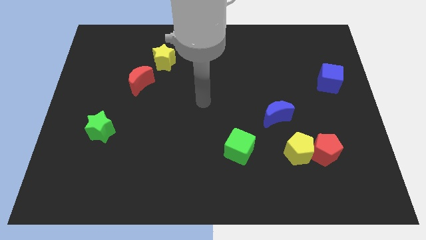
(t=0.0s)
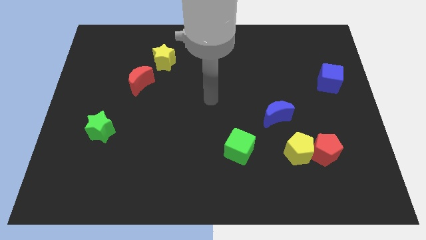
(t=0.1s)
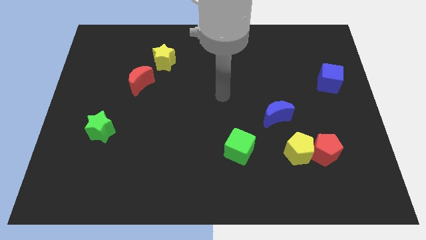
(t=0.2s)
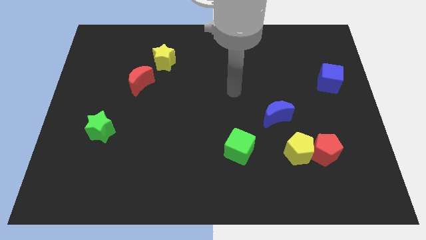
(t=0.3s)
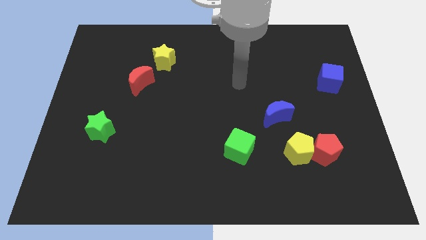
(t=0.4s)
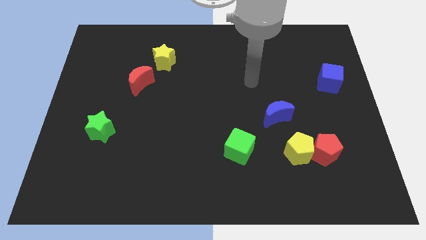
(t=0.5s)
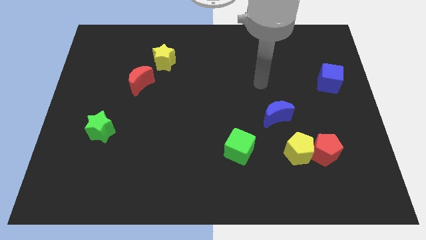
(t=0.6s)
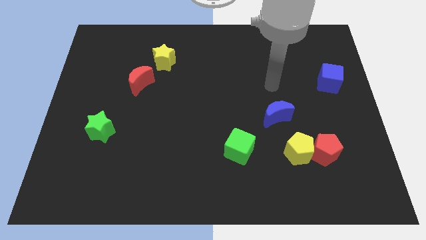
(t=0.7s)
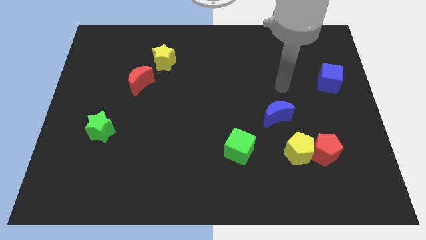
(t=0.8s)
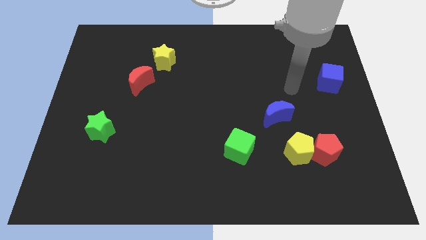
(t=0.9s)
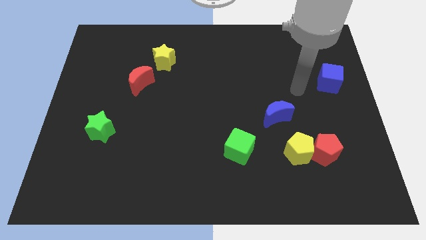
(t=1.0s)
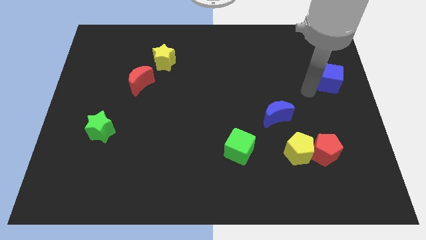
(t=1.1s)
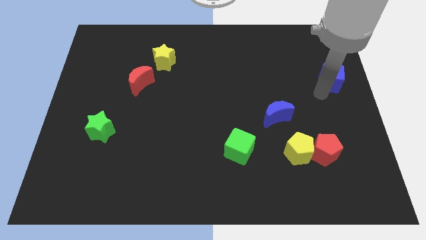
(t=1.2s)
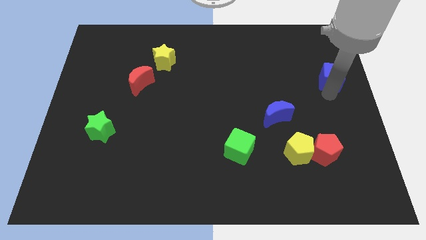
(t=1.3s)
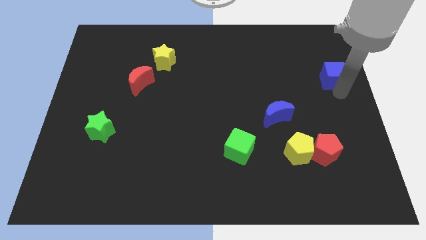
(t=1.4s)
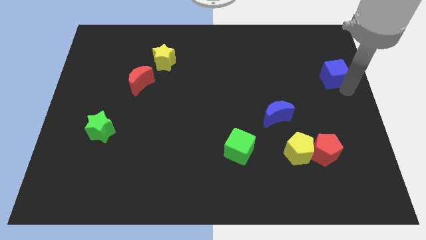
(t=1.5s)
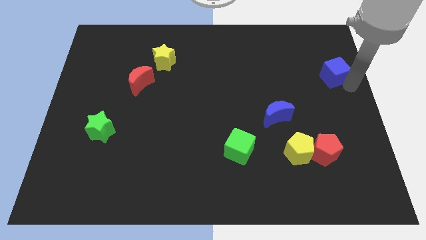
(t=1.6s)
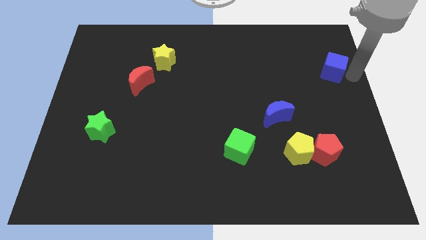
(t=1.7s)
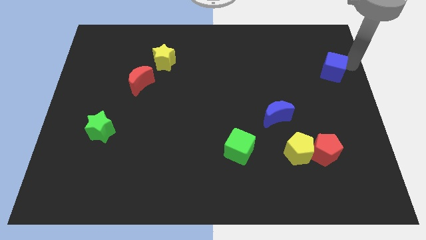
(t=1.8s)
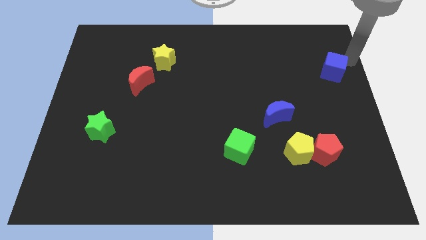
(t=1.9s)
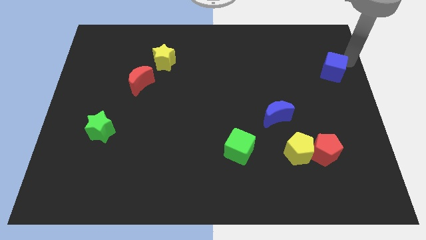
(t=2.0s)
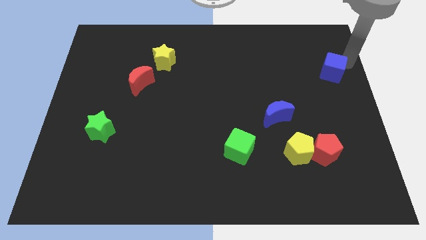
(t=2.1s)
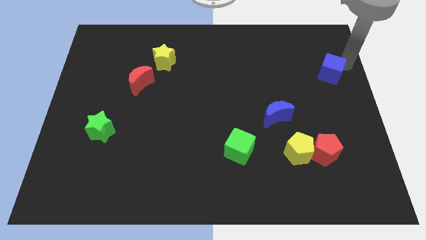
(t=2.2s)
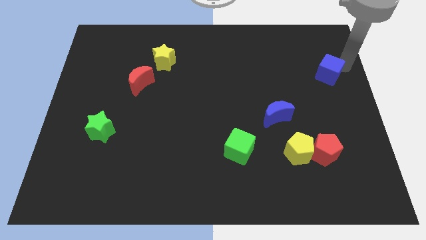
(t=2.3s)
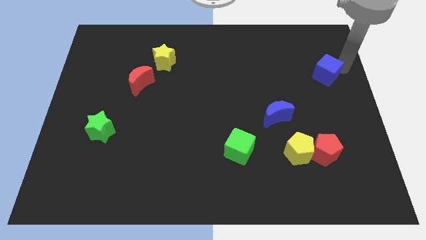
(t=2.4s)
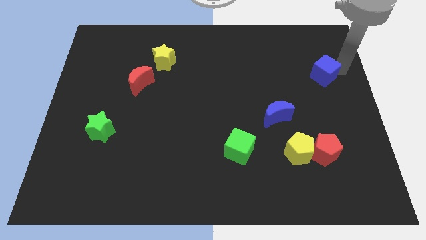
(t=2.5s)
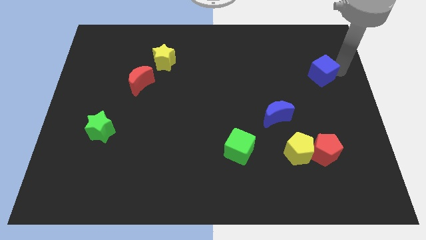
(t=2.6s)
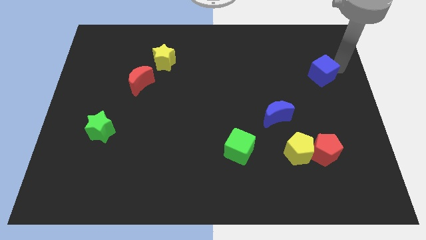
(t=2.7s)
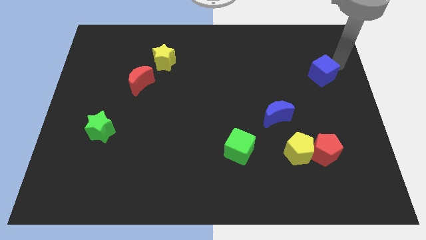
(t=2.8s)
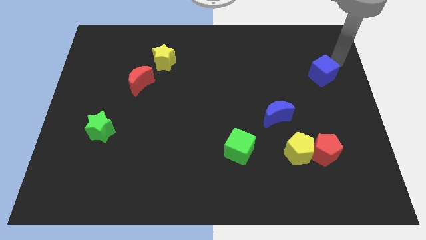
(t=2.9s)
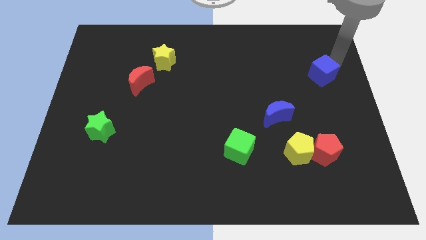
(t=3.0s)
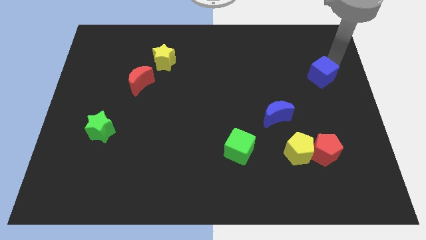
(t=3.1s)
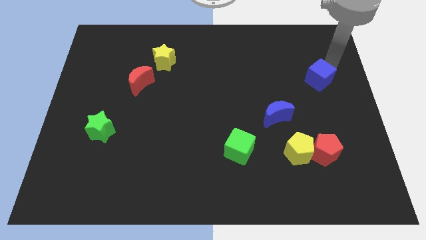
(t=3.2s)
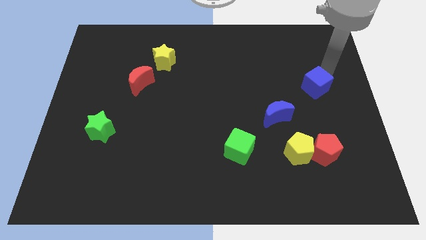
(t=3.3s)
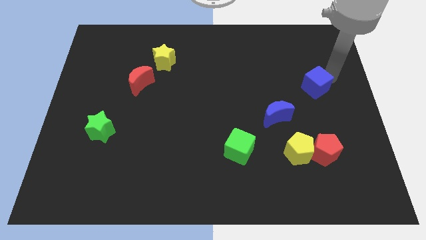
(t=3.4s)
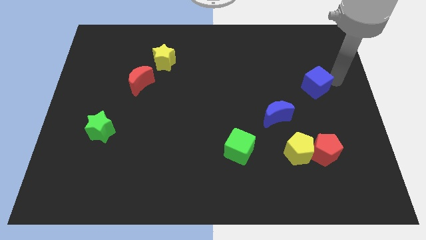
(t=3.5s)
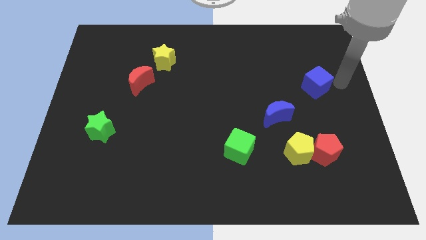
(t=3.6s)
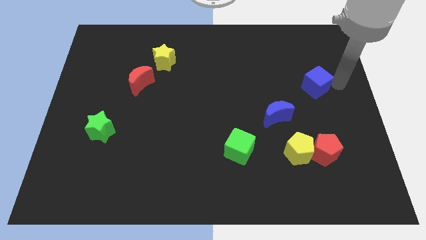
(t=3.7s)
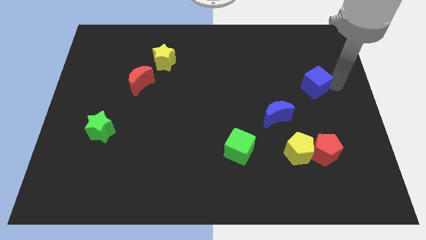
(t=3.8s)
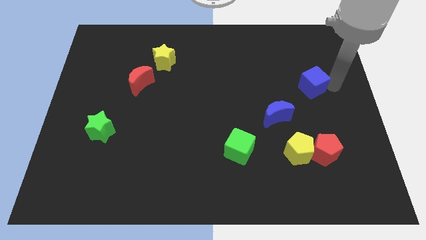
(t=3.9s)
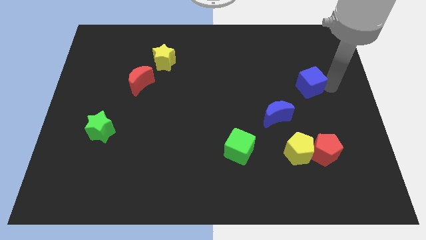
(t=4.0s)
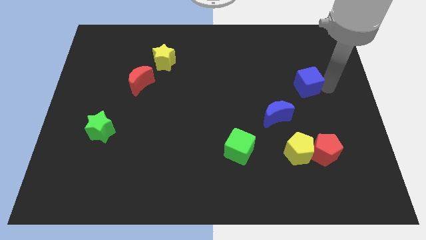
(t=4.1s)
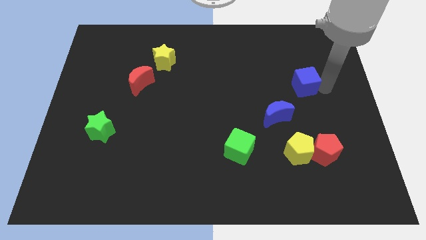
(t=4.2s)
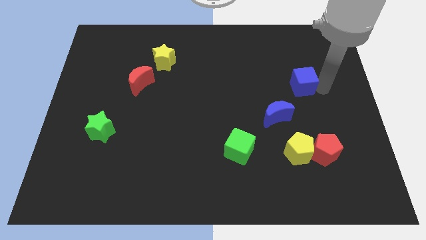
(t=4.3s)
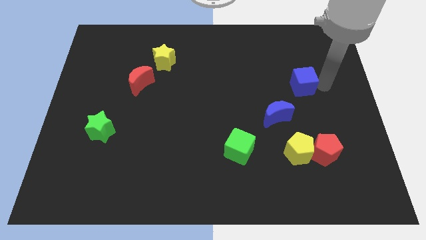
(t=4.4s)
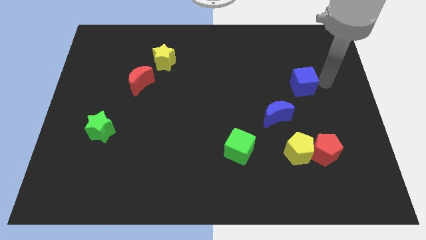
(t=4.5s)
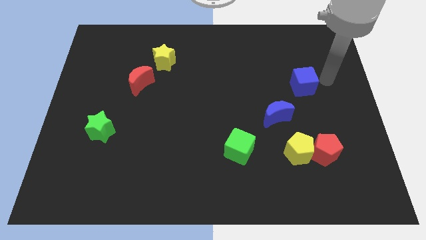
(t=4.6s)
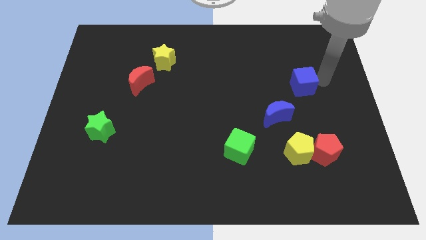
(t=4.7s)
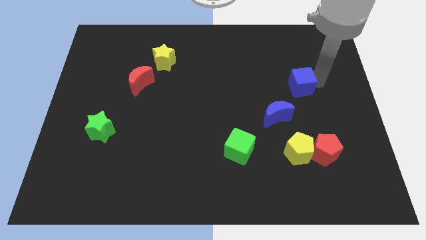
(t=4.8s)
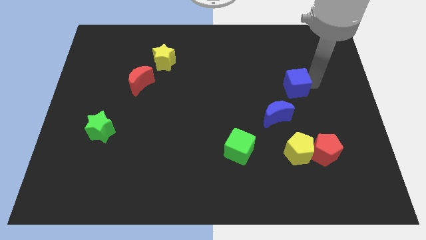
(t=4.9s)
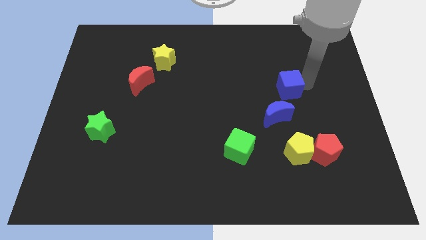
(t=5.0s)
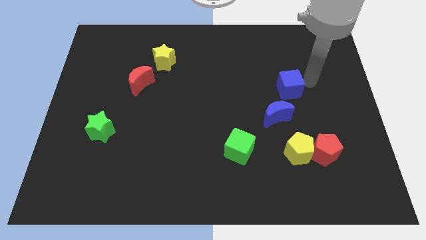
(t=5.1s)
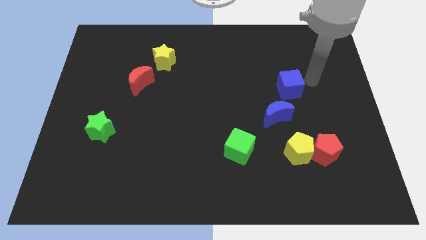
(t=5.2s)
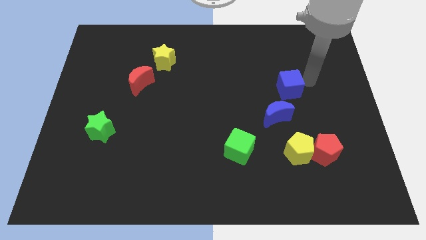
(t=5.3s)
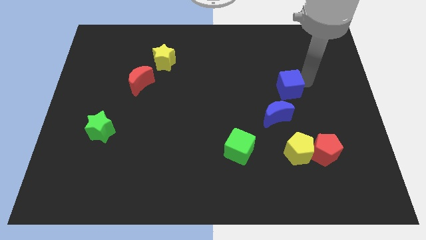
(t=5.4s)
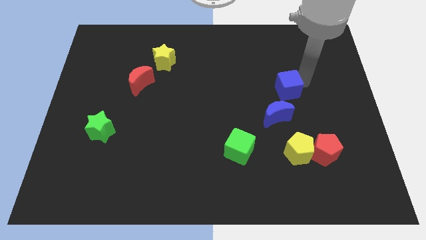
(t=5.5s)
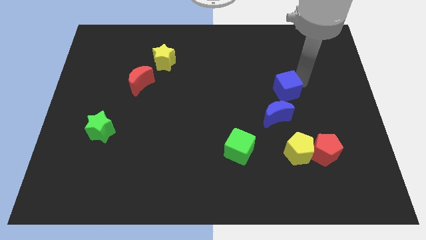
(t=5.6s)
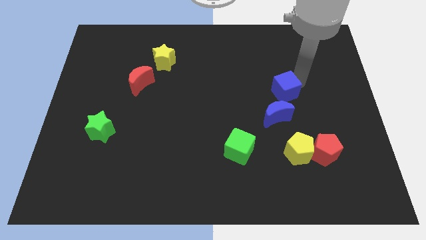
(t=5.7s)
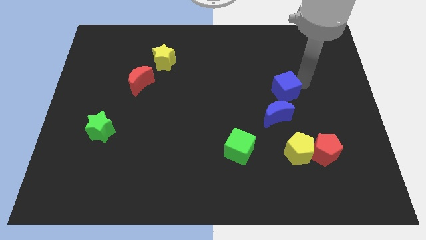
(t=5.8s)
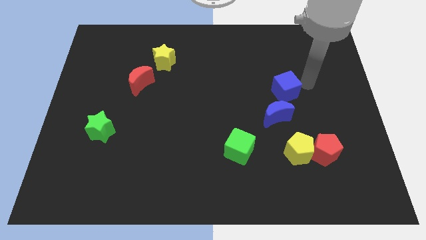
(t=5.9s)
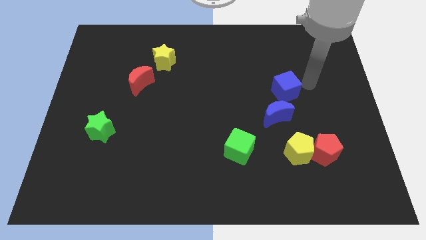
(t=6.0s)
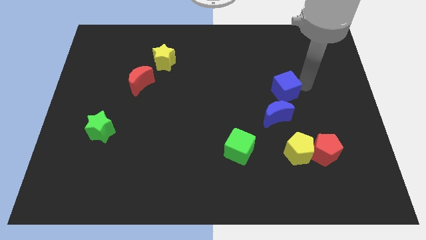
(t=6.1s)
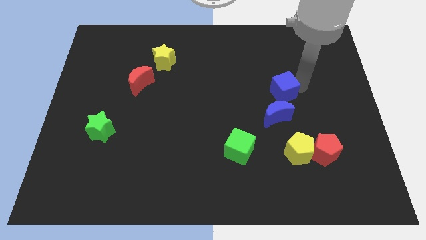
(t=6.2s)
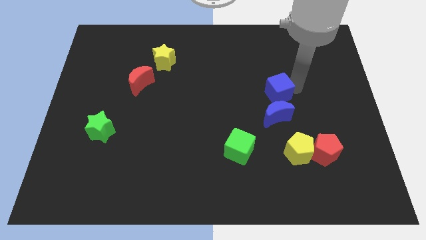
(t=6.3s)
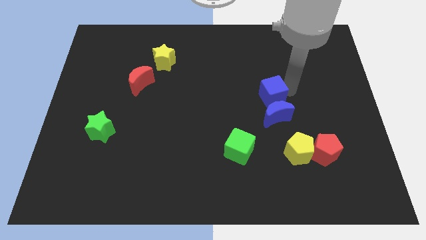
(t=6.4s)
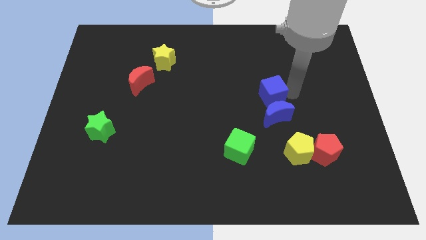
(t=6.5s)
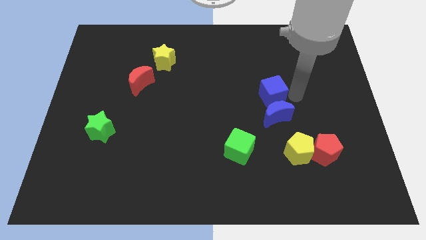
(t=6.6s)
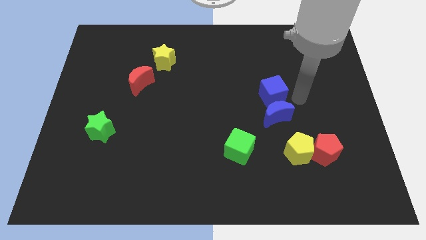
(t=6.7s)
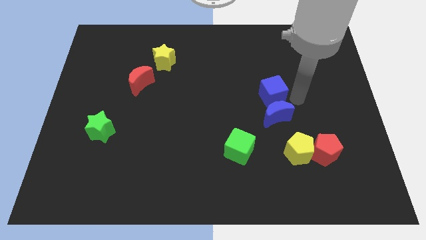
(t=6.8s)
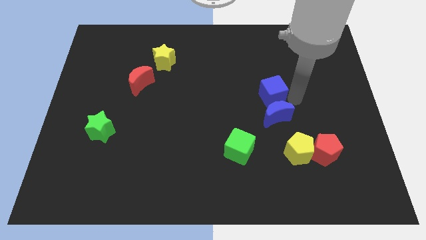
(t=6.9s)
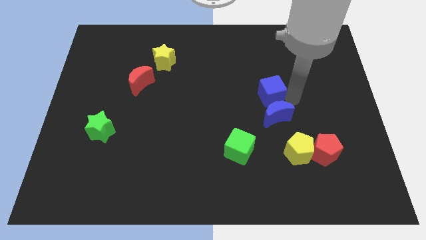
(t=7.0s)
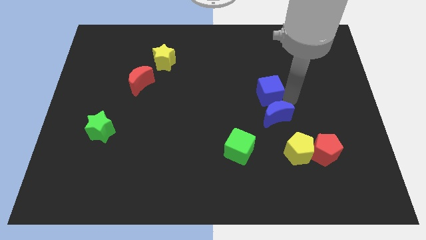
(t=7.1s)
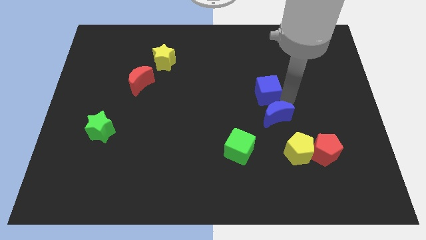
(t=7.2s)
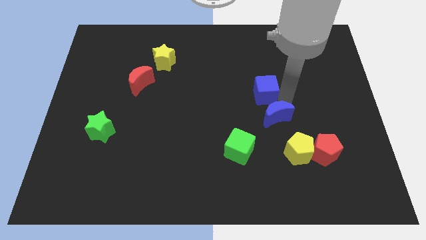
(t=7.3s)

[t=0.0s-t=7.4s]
move the blue cube to the center
